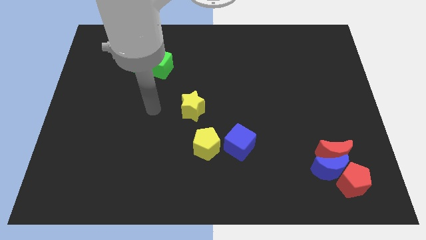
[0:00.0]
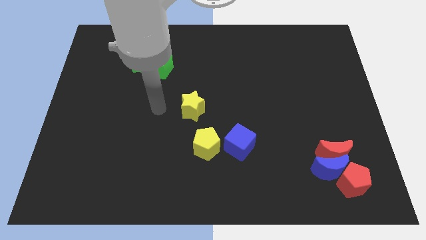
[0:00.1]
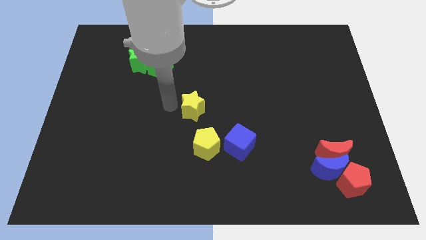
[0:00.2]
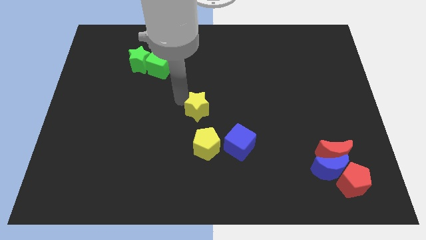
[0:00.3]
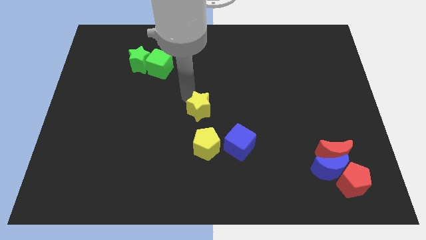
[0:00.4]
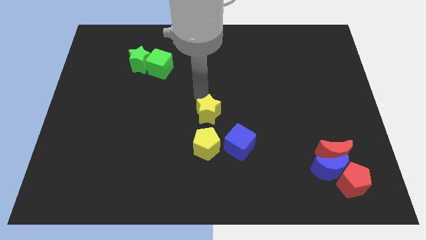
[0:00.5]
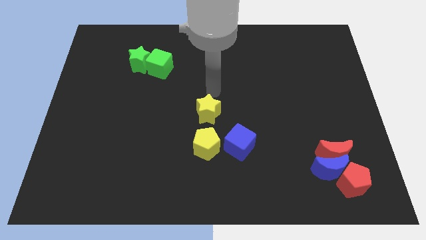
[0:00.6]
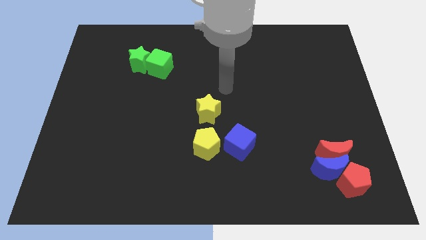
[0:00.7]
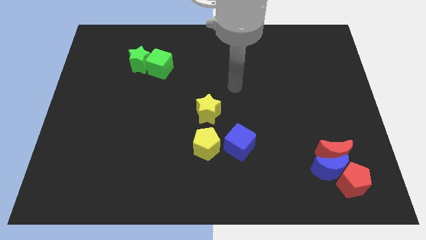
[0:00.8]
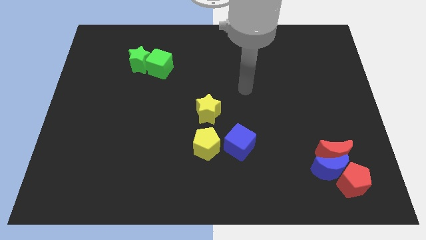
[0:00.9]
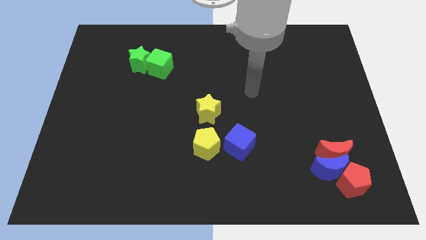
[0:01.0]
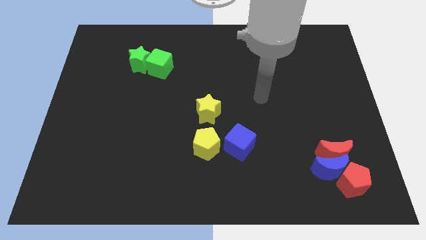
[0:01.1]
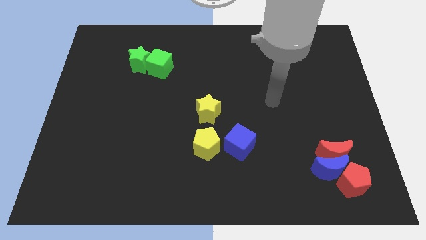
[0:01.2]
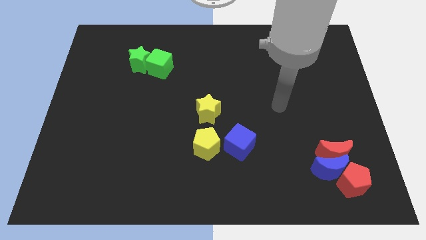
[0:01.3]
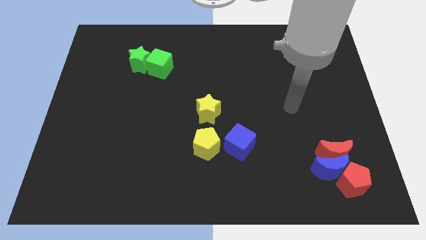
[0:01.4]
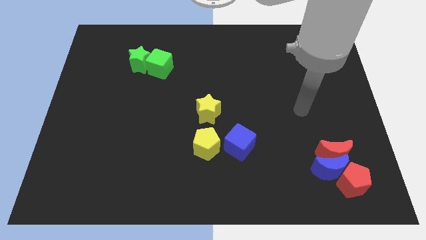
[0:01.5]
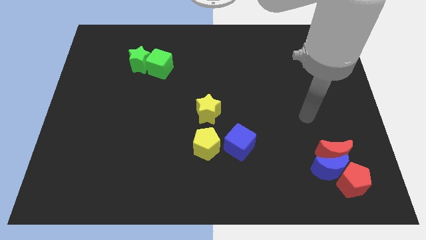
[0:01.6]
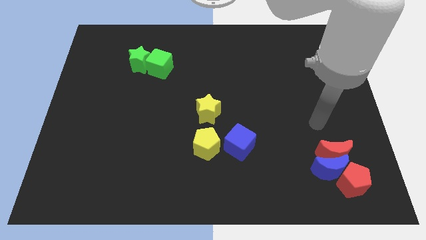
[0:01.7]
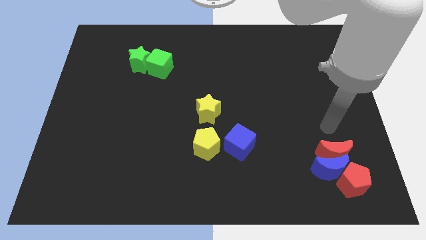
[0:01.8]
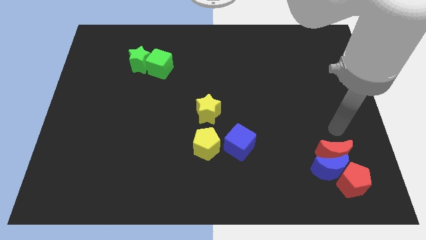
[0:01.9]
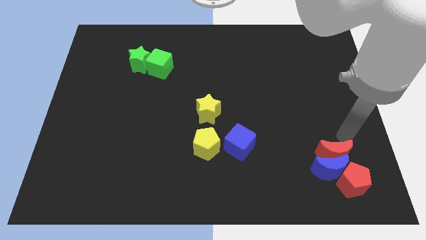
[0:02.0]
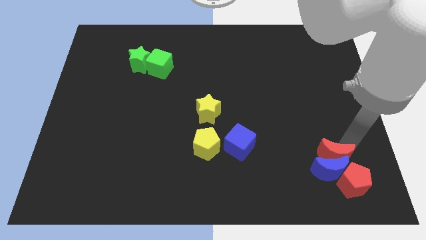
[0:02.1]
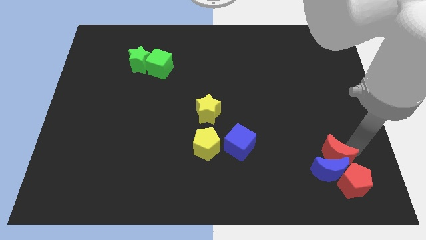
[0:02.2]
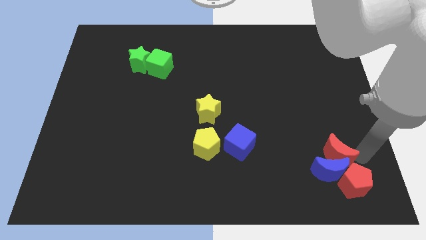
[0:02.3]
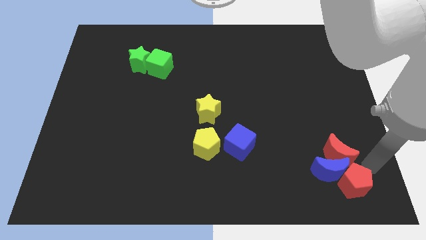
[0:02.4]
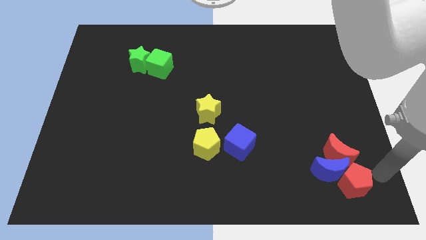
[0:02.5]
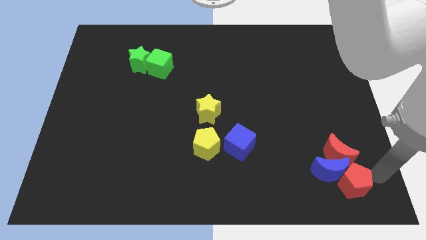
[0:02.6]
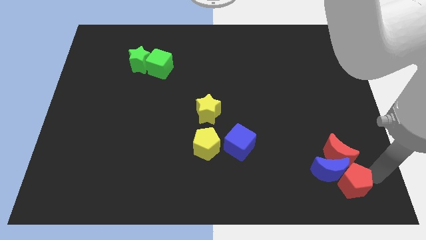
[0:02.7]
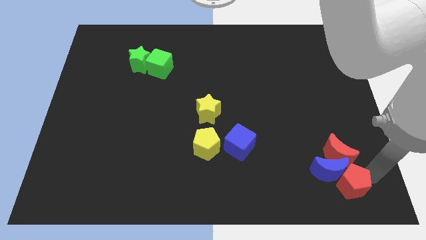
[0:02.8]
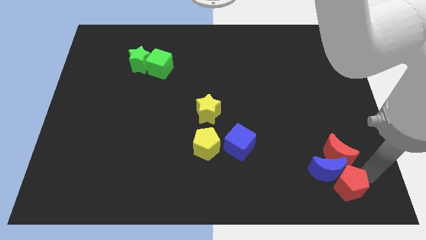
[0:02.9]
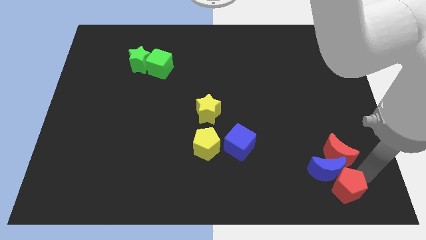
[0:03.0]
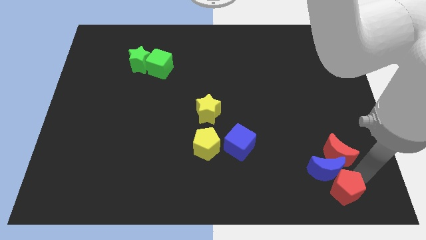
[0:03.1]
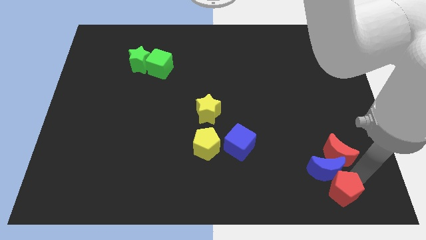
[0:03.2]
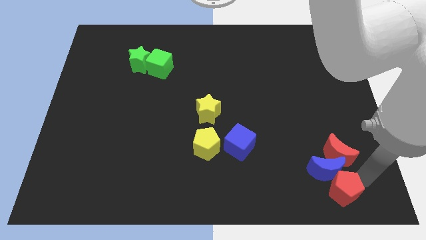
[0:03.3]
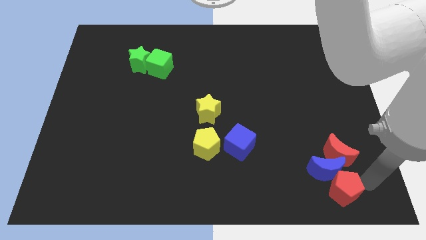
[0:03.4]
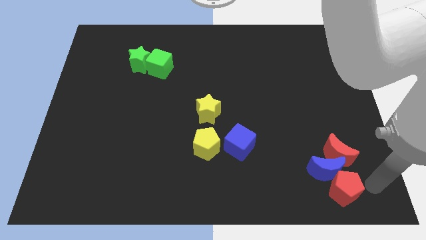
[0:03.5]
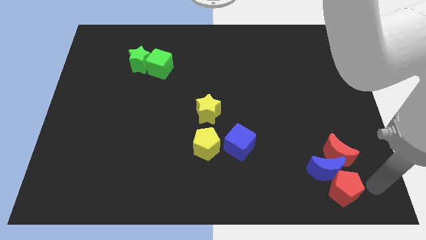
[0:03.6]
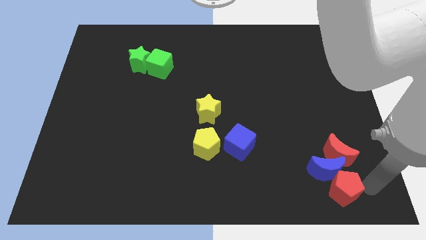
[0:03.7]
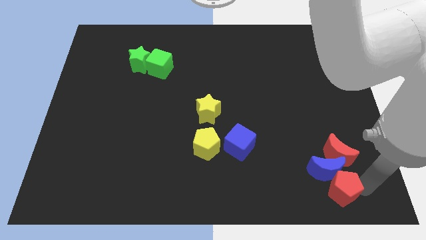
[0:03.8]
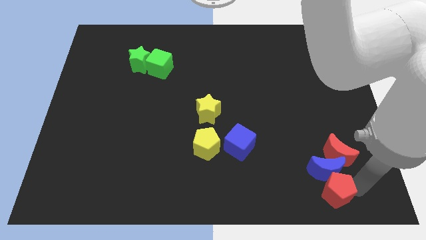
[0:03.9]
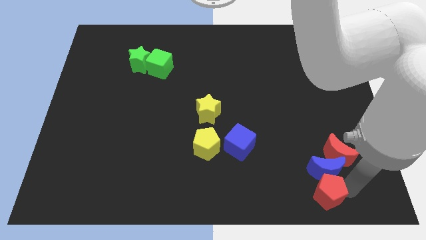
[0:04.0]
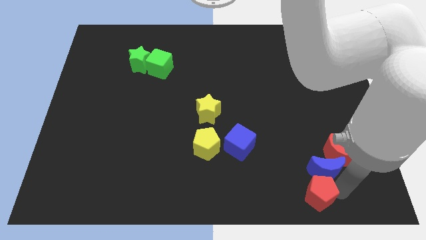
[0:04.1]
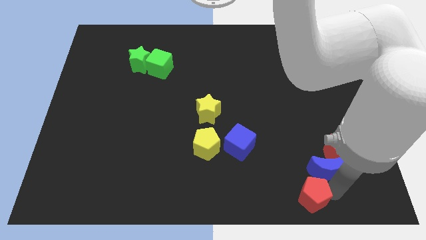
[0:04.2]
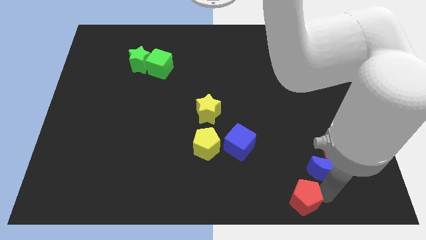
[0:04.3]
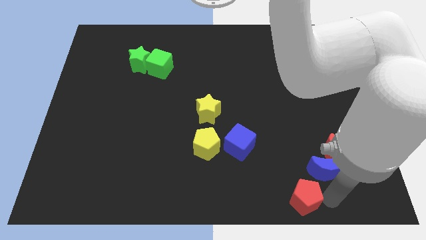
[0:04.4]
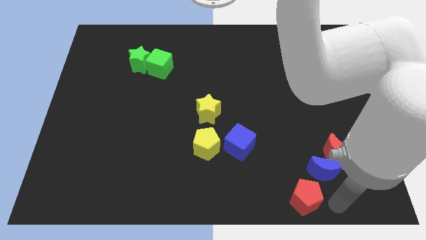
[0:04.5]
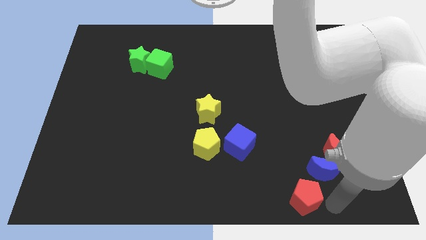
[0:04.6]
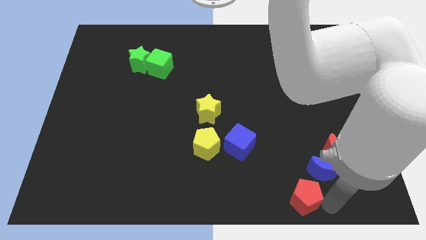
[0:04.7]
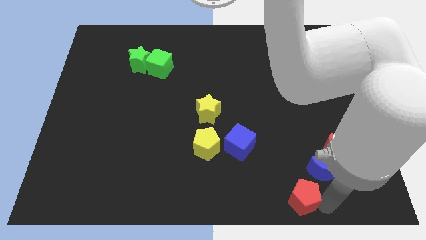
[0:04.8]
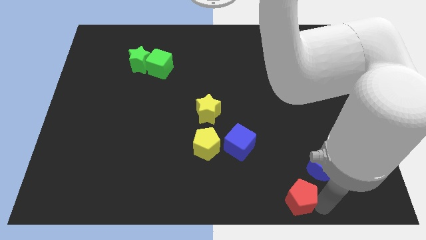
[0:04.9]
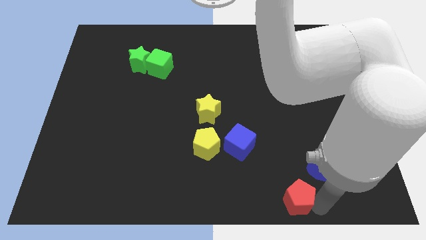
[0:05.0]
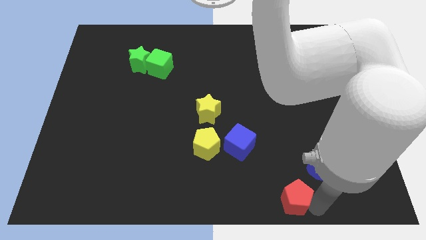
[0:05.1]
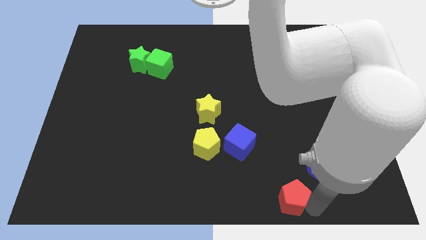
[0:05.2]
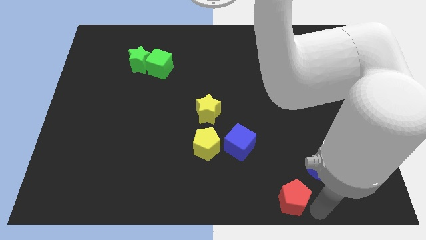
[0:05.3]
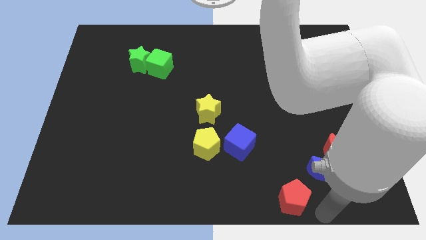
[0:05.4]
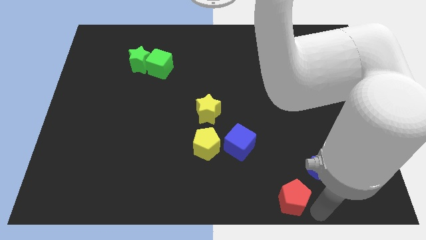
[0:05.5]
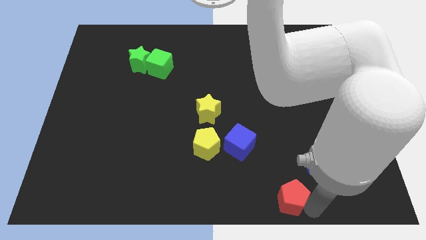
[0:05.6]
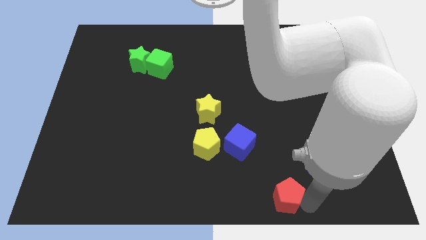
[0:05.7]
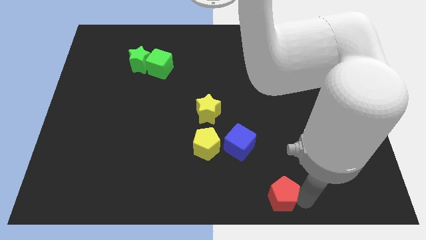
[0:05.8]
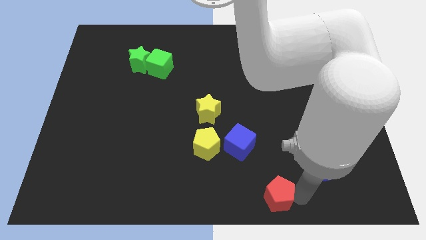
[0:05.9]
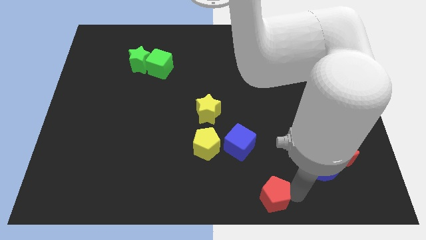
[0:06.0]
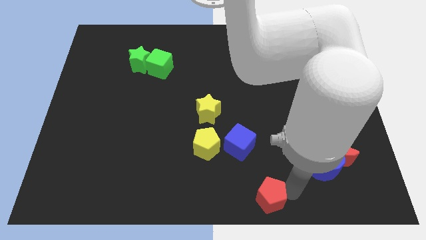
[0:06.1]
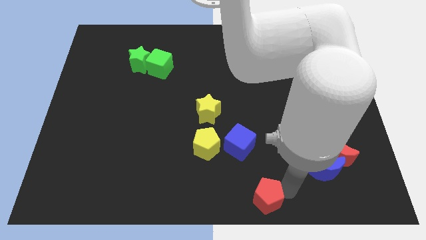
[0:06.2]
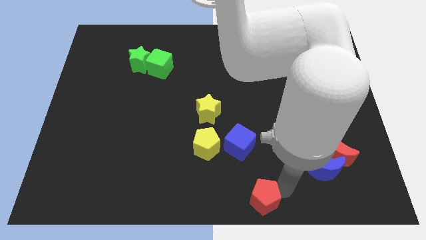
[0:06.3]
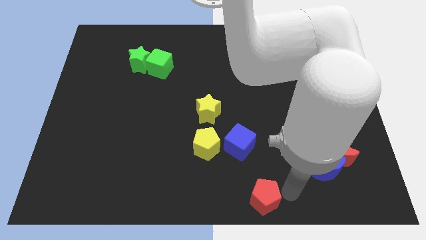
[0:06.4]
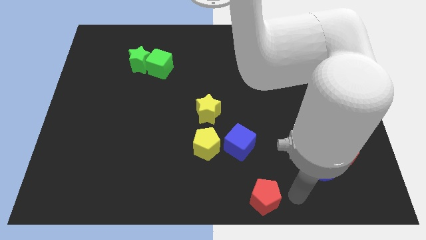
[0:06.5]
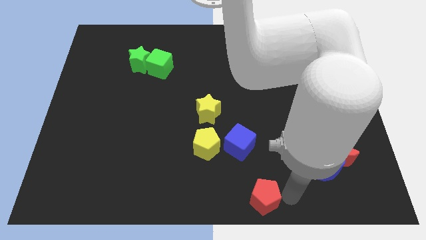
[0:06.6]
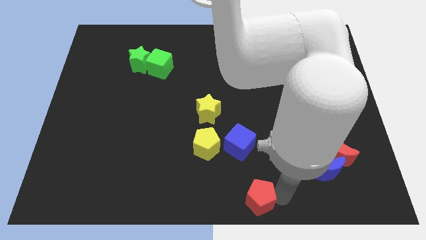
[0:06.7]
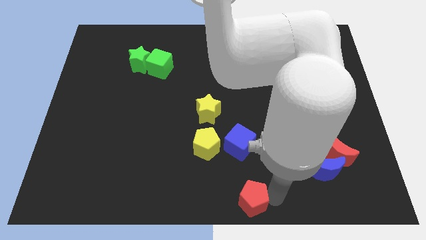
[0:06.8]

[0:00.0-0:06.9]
move the red pentagon to the left

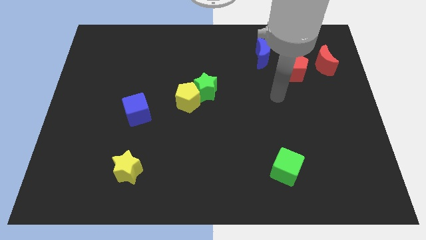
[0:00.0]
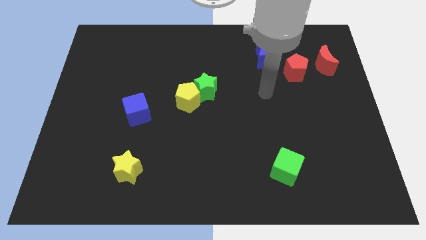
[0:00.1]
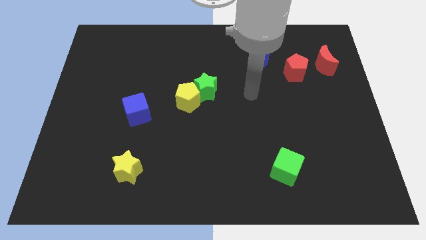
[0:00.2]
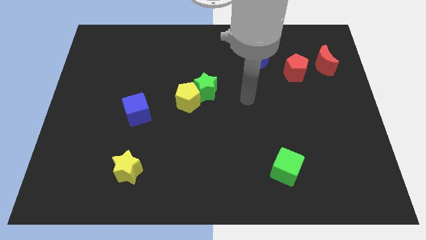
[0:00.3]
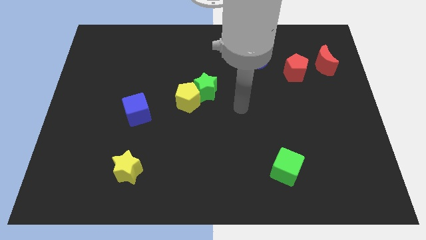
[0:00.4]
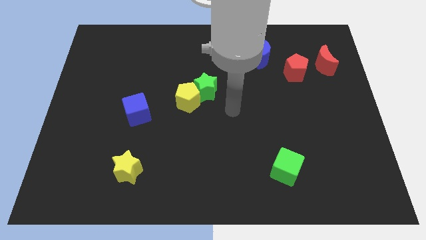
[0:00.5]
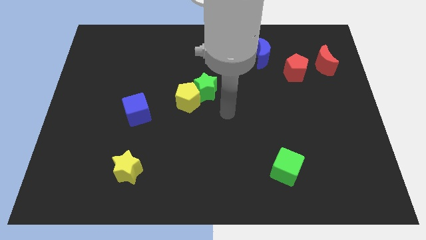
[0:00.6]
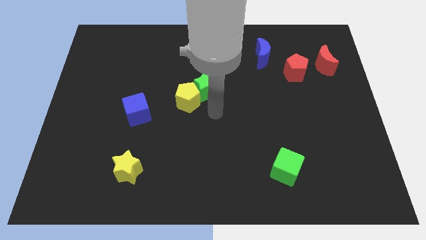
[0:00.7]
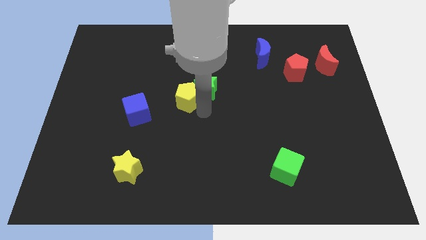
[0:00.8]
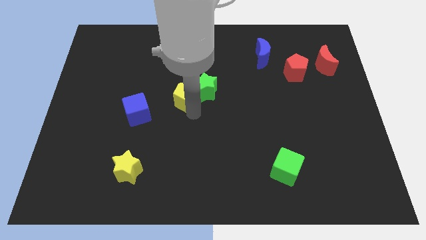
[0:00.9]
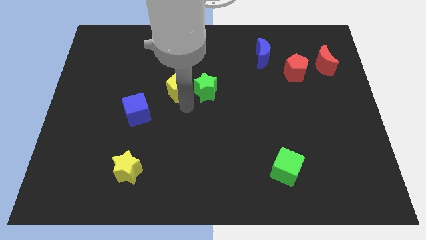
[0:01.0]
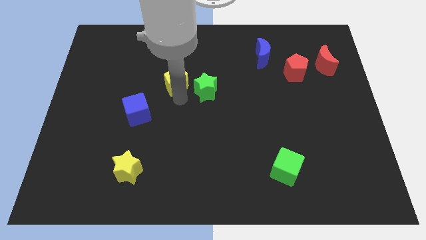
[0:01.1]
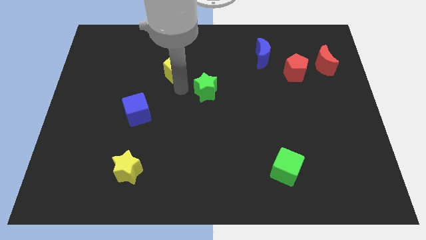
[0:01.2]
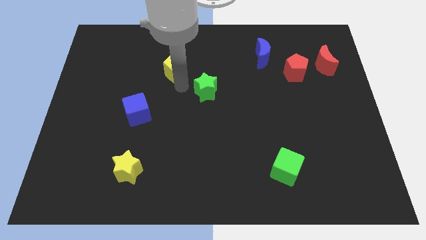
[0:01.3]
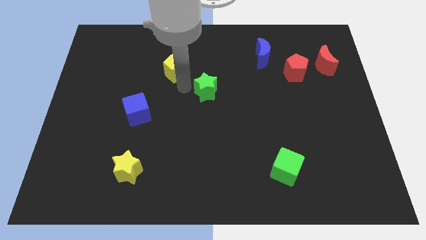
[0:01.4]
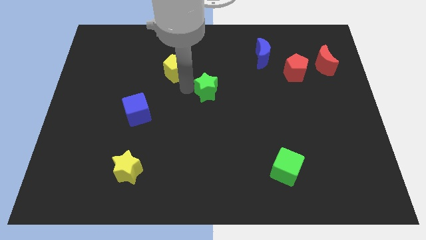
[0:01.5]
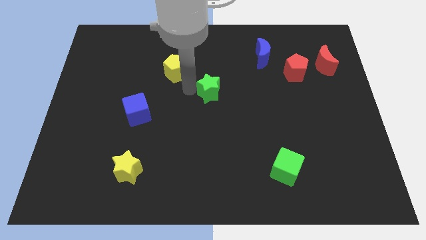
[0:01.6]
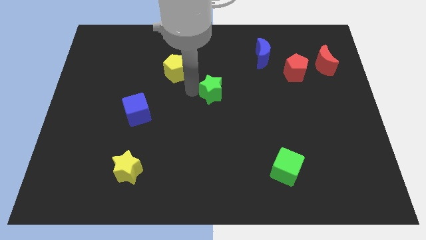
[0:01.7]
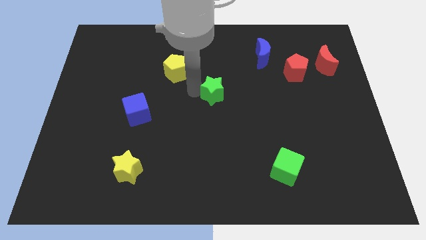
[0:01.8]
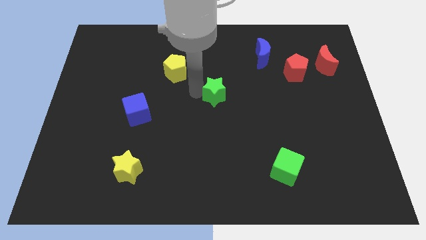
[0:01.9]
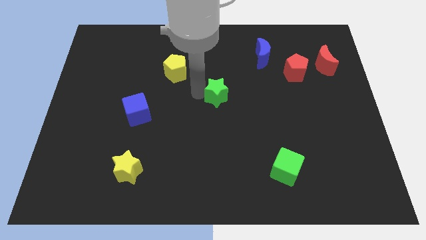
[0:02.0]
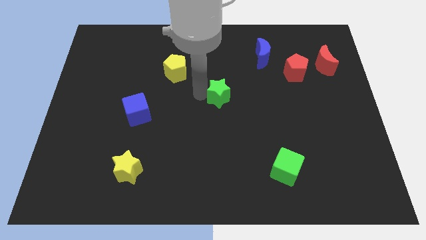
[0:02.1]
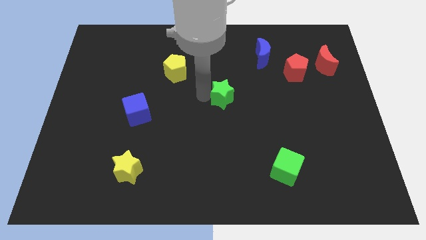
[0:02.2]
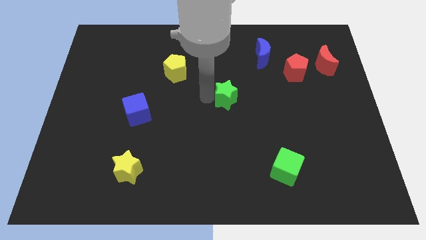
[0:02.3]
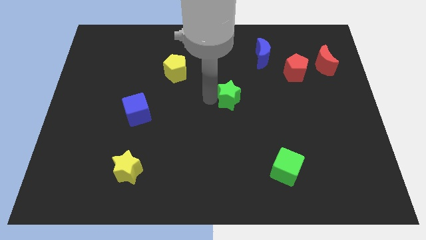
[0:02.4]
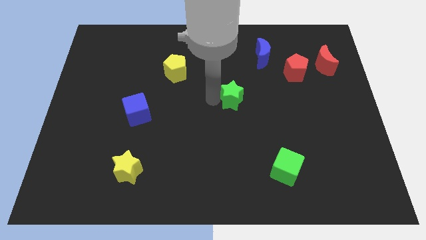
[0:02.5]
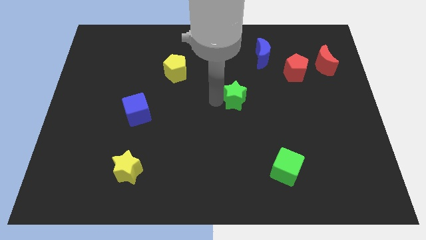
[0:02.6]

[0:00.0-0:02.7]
push the green star right a little
